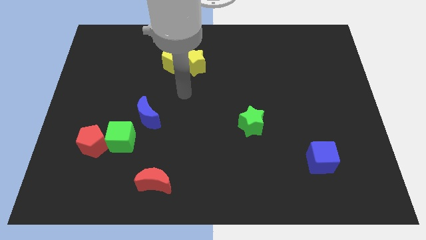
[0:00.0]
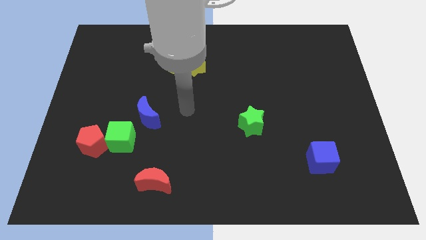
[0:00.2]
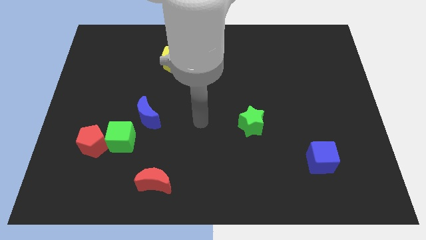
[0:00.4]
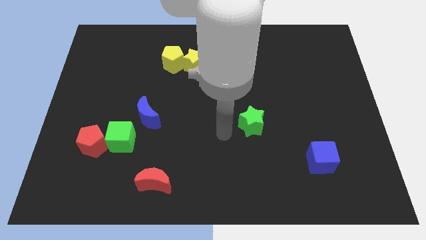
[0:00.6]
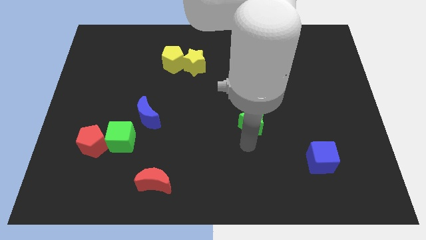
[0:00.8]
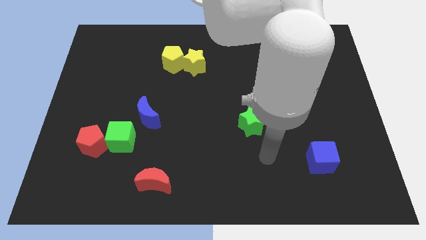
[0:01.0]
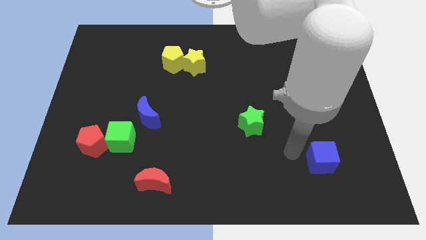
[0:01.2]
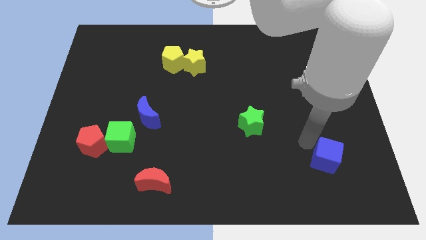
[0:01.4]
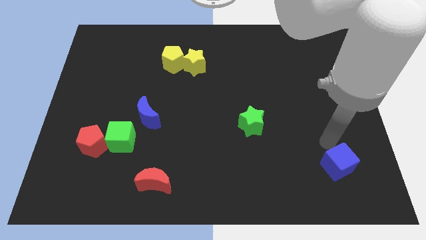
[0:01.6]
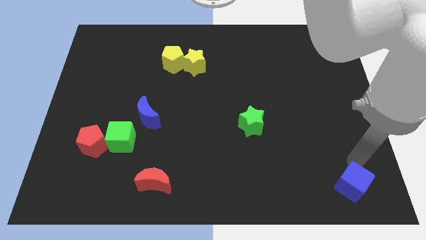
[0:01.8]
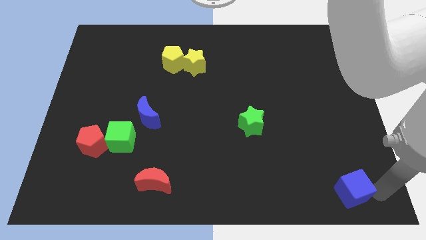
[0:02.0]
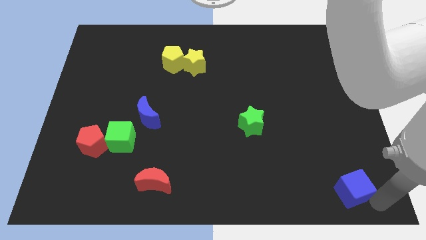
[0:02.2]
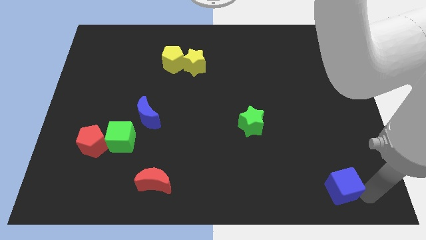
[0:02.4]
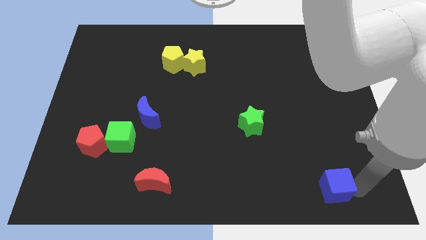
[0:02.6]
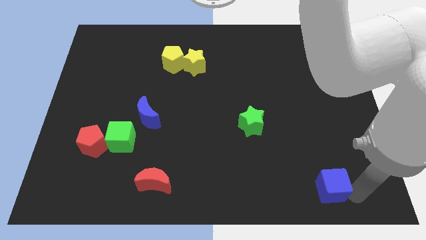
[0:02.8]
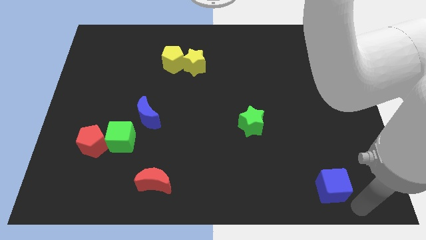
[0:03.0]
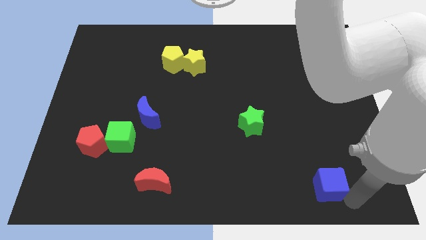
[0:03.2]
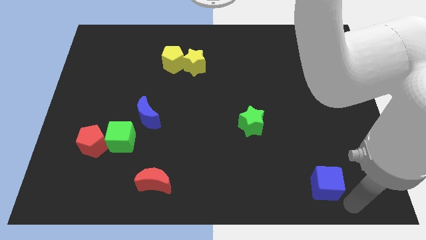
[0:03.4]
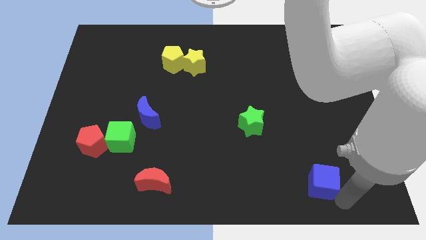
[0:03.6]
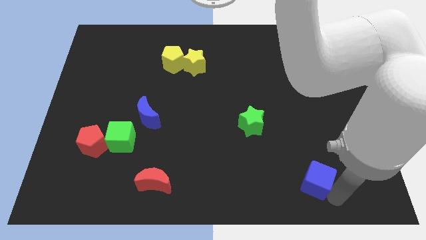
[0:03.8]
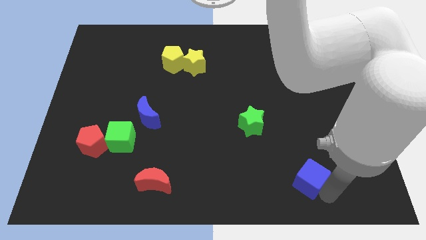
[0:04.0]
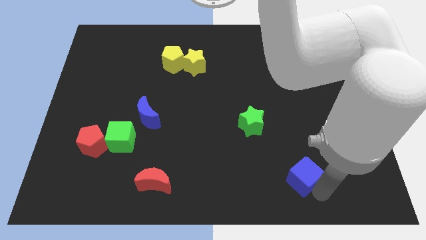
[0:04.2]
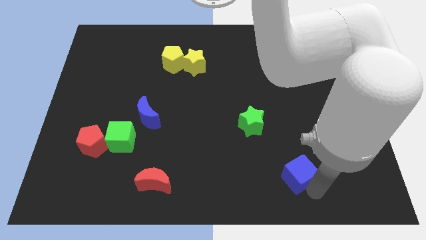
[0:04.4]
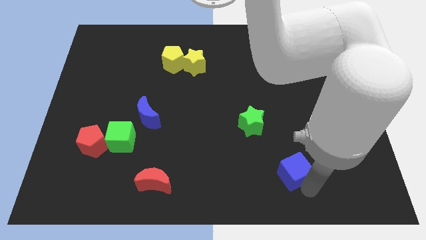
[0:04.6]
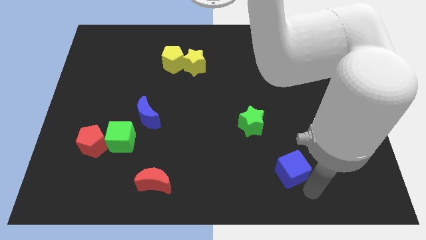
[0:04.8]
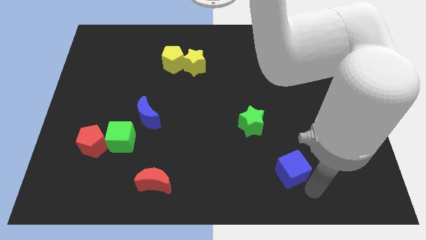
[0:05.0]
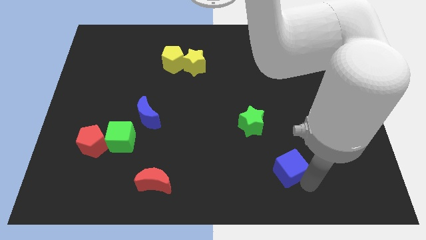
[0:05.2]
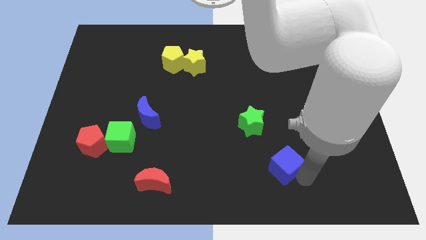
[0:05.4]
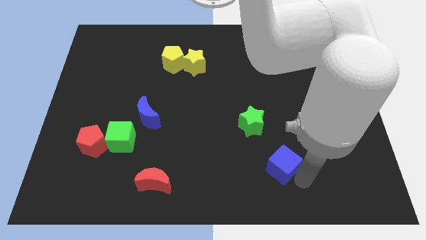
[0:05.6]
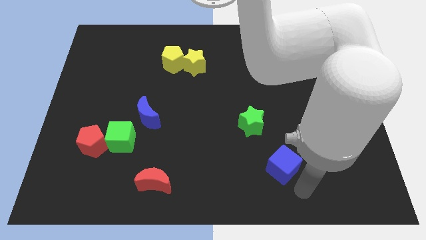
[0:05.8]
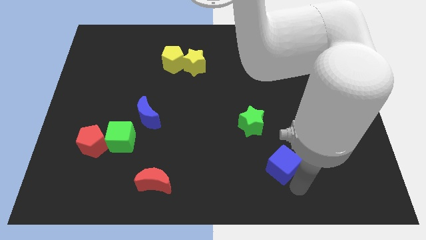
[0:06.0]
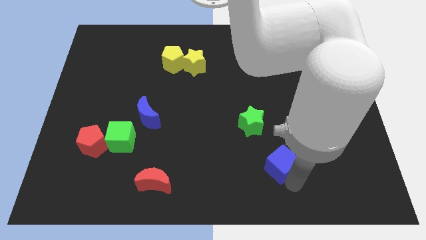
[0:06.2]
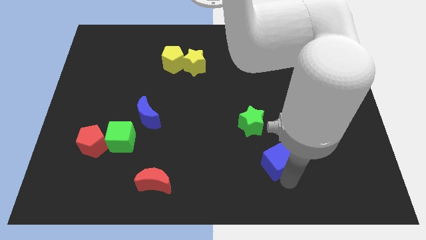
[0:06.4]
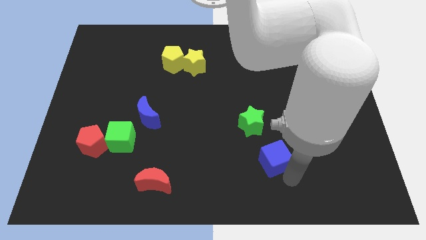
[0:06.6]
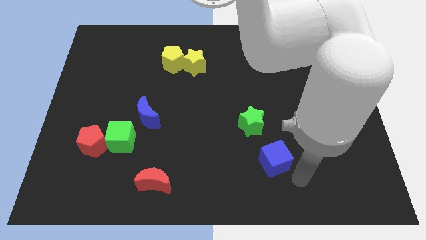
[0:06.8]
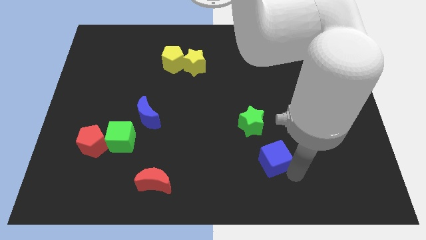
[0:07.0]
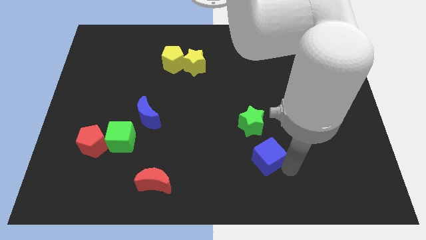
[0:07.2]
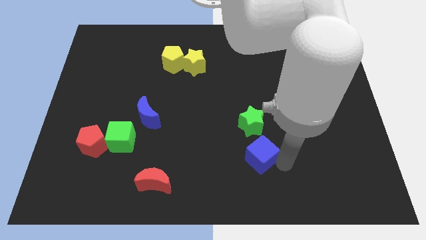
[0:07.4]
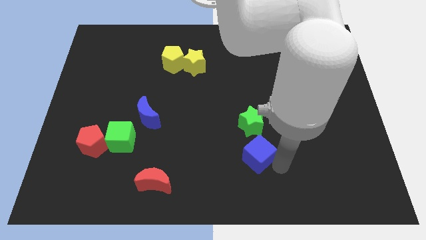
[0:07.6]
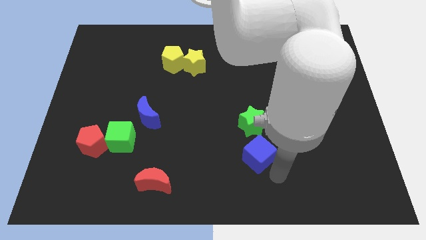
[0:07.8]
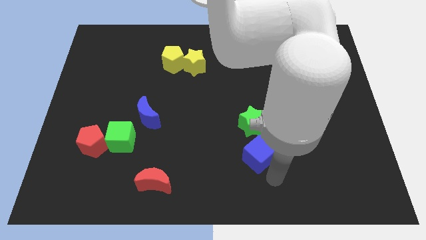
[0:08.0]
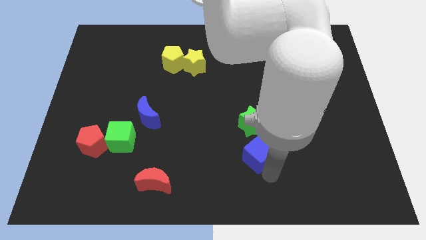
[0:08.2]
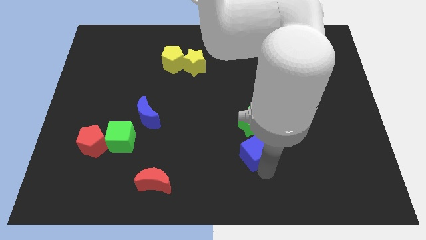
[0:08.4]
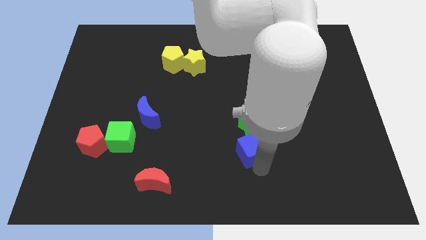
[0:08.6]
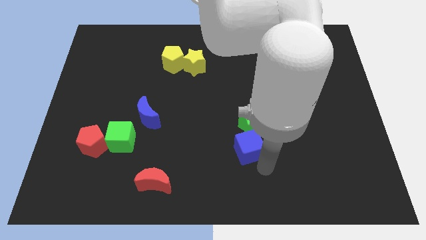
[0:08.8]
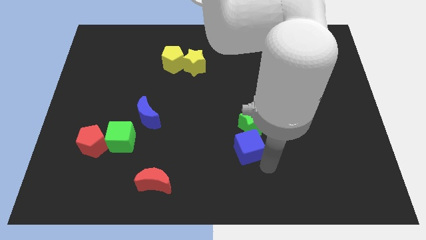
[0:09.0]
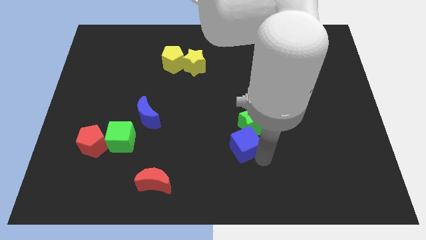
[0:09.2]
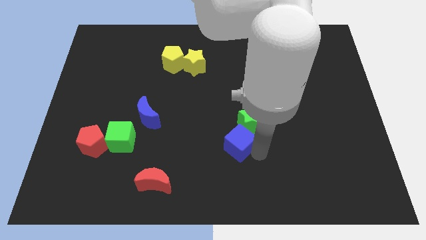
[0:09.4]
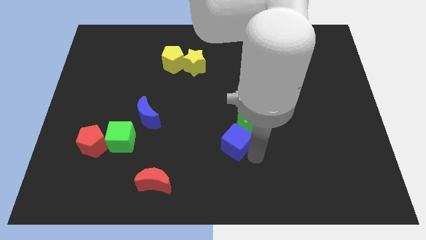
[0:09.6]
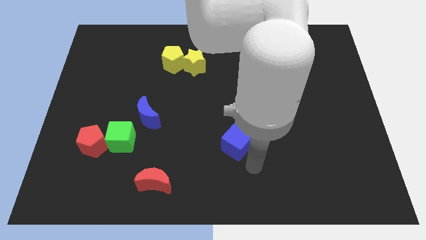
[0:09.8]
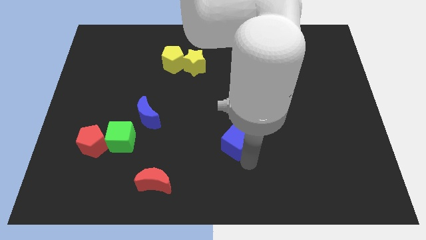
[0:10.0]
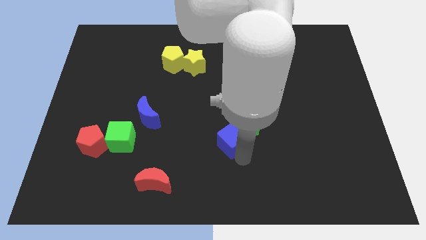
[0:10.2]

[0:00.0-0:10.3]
move the blue cube left of the green star

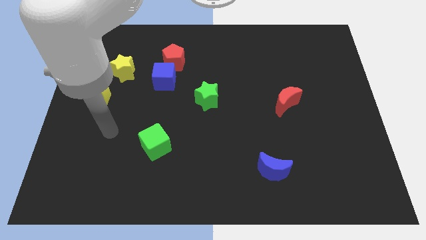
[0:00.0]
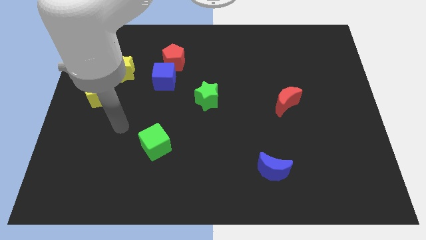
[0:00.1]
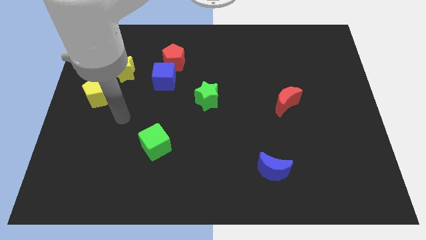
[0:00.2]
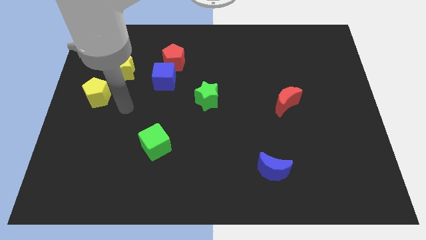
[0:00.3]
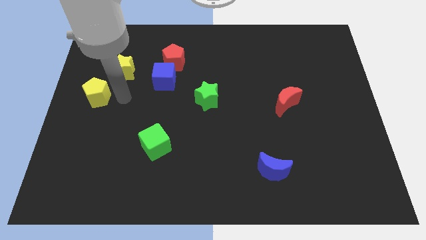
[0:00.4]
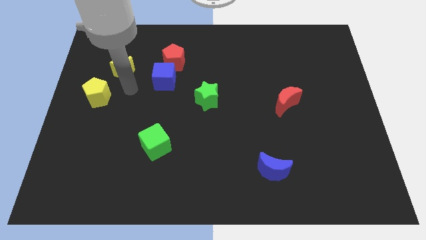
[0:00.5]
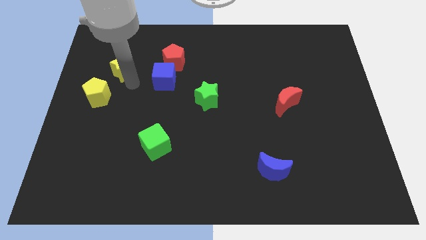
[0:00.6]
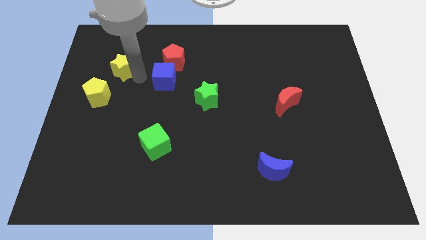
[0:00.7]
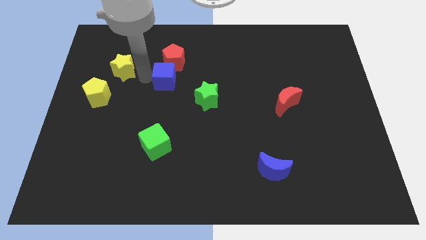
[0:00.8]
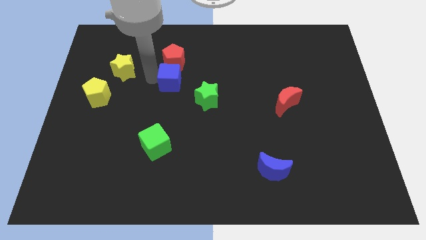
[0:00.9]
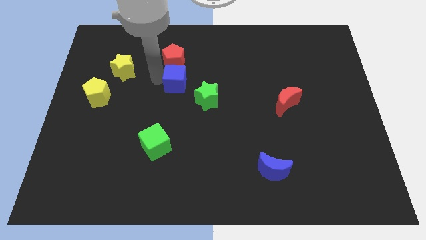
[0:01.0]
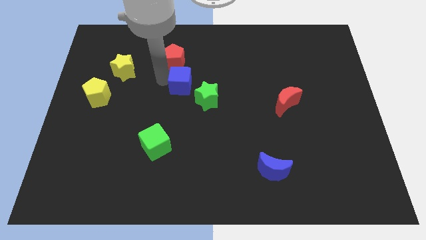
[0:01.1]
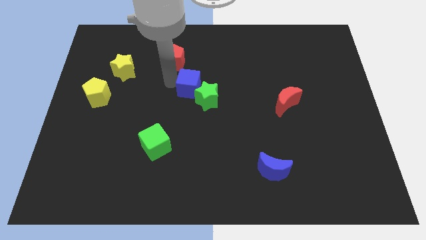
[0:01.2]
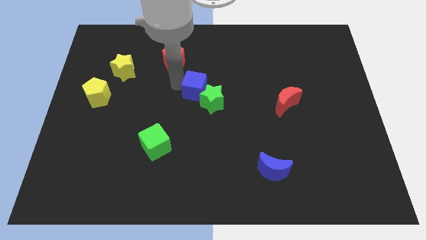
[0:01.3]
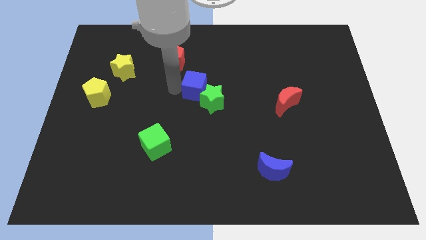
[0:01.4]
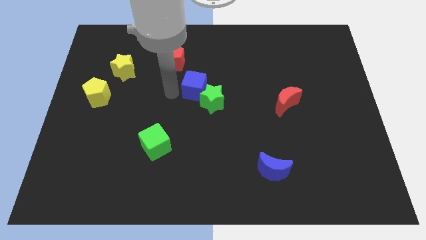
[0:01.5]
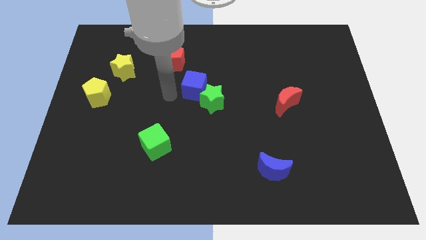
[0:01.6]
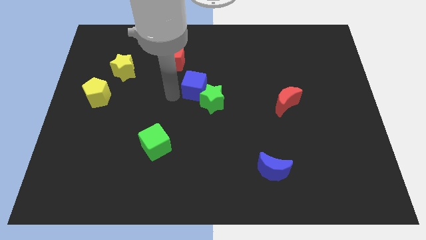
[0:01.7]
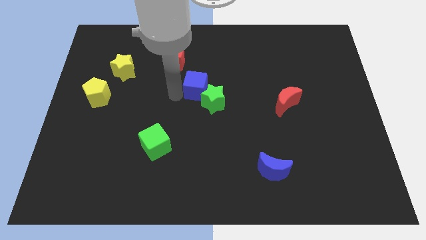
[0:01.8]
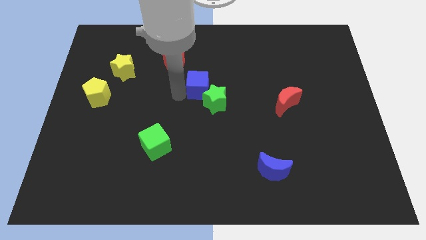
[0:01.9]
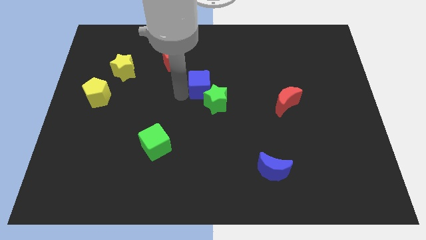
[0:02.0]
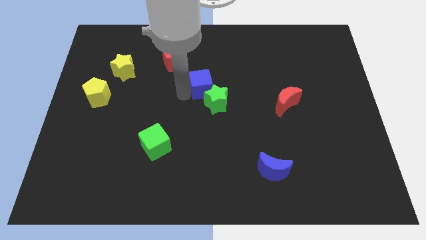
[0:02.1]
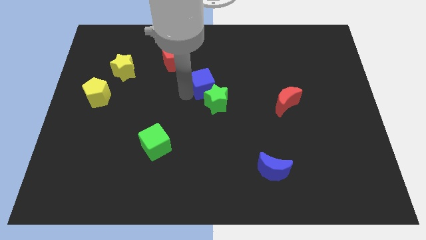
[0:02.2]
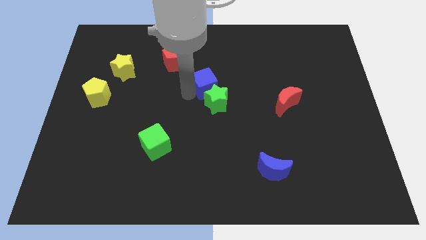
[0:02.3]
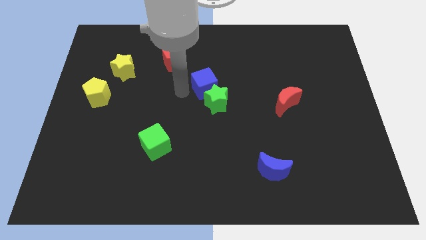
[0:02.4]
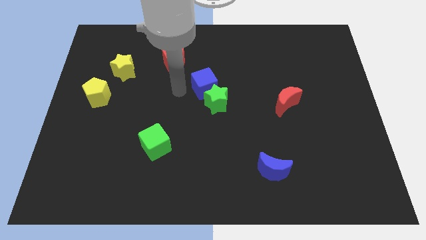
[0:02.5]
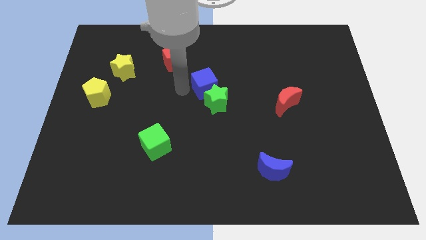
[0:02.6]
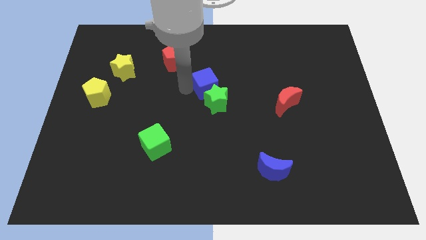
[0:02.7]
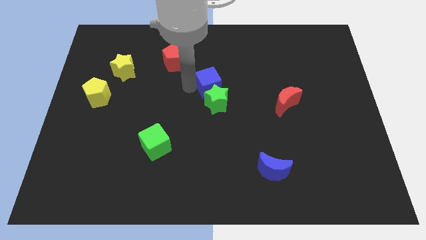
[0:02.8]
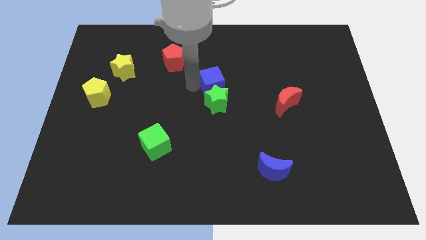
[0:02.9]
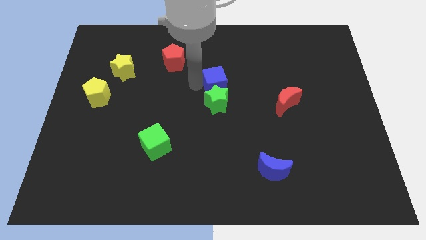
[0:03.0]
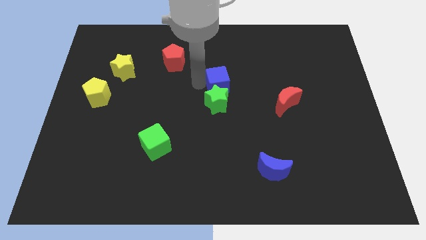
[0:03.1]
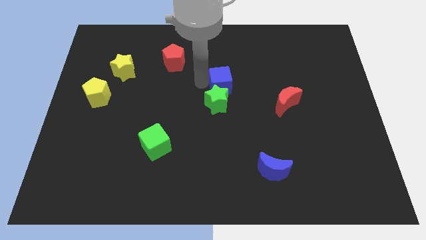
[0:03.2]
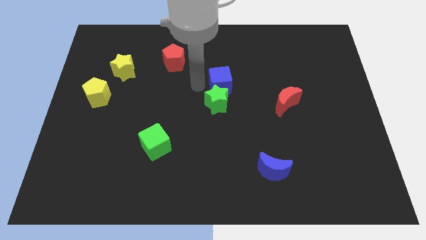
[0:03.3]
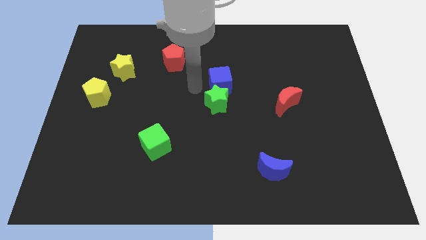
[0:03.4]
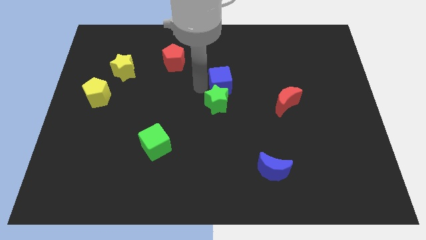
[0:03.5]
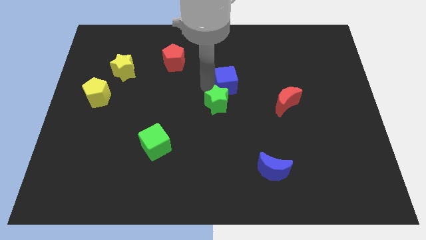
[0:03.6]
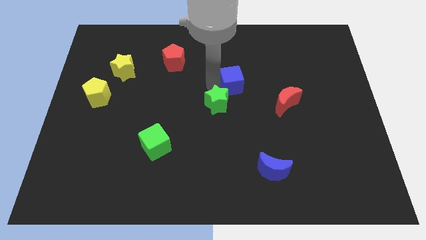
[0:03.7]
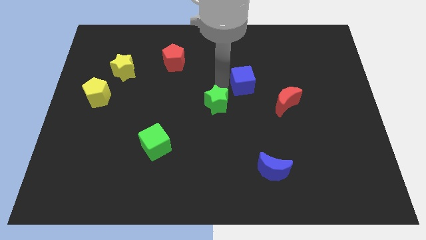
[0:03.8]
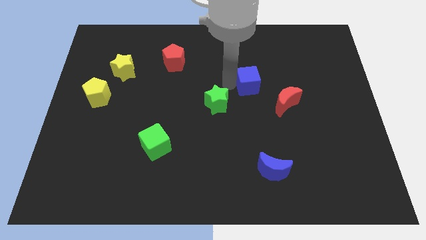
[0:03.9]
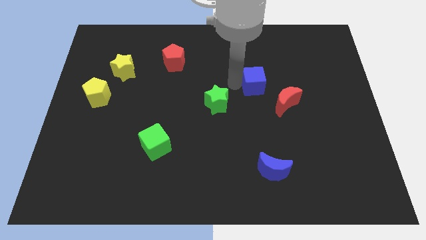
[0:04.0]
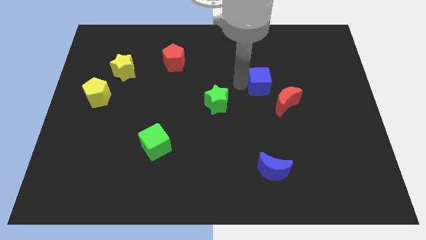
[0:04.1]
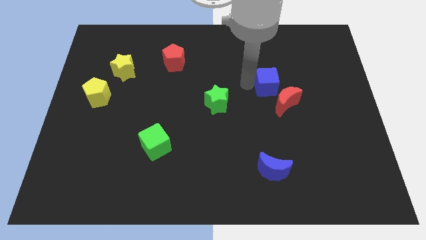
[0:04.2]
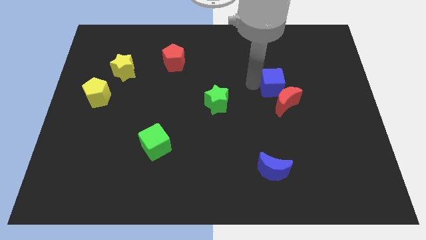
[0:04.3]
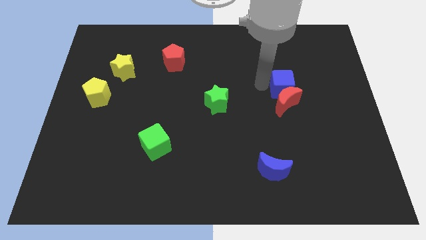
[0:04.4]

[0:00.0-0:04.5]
slide the blue cube diagonally up and to the right of the red moon
